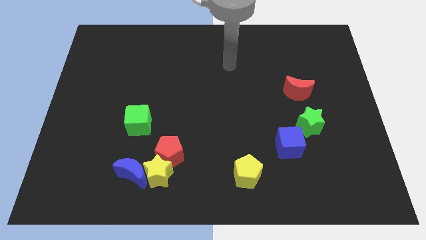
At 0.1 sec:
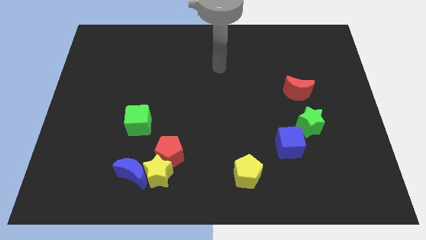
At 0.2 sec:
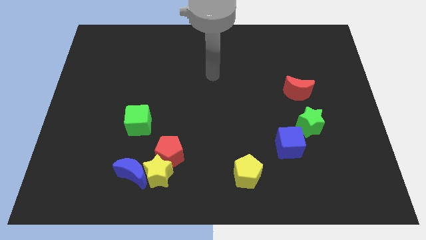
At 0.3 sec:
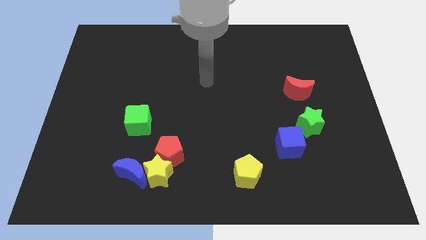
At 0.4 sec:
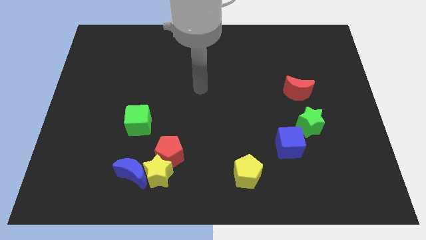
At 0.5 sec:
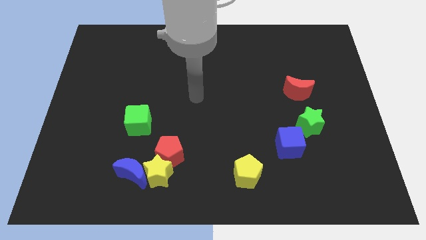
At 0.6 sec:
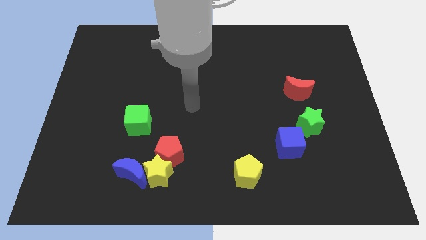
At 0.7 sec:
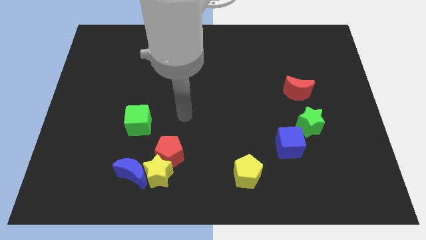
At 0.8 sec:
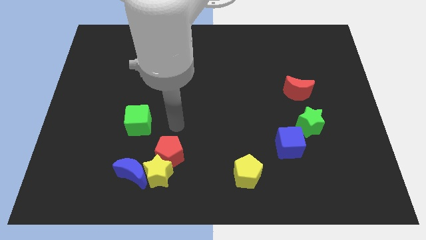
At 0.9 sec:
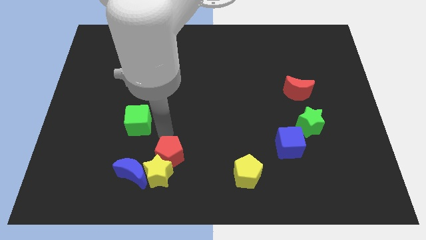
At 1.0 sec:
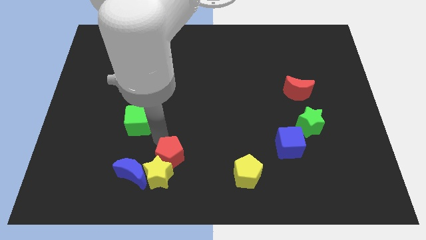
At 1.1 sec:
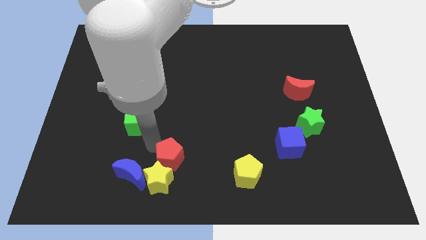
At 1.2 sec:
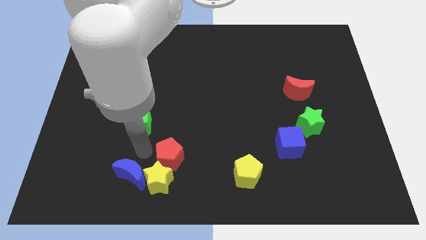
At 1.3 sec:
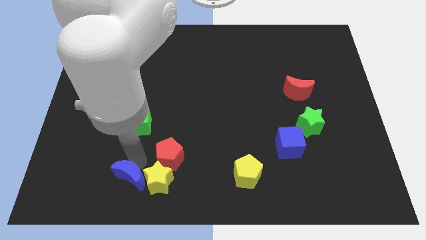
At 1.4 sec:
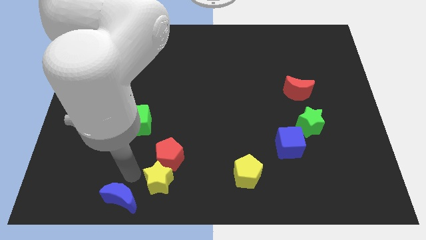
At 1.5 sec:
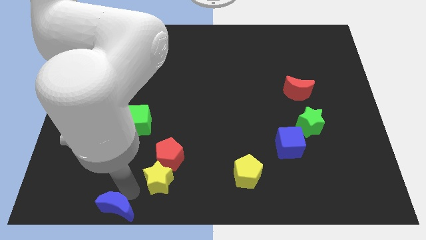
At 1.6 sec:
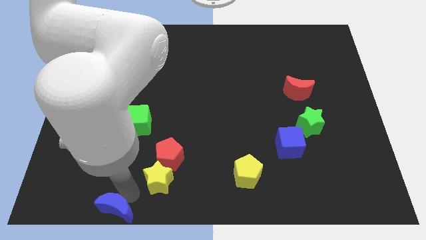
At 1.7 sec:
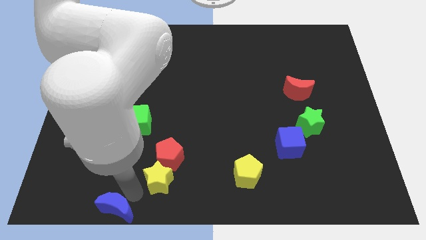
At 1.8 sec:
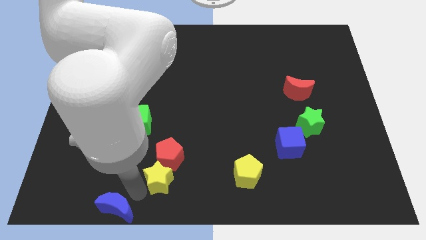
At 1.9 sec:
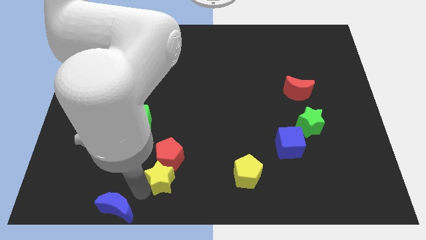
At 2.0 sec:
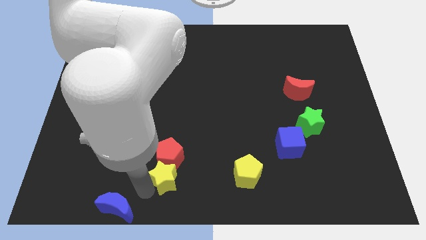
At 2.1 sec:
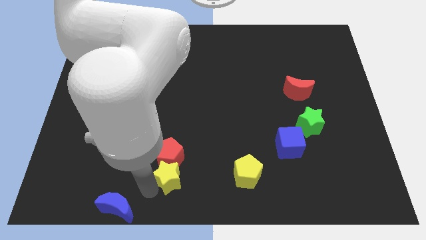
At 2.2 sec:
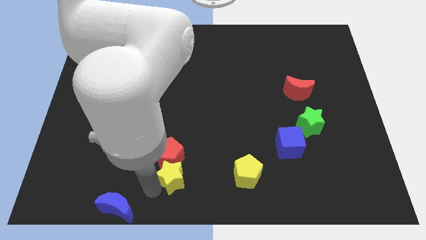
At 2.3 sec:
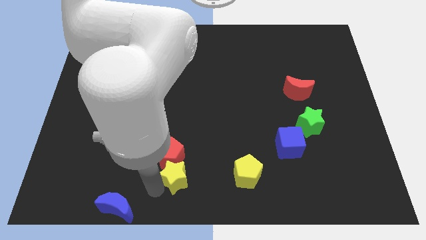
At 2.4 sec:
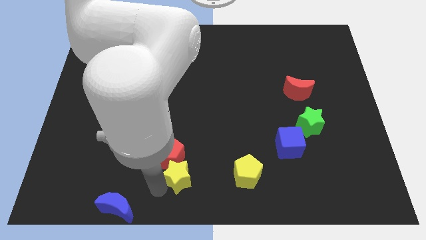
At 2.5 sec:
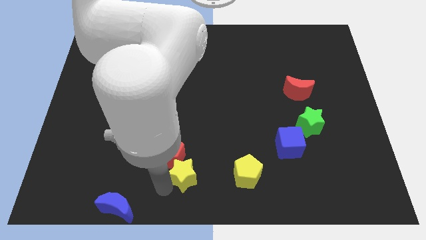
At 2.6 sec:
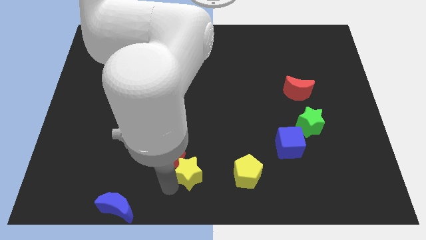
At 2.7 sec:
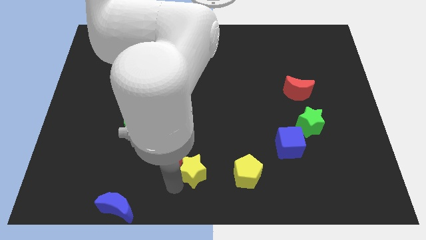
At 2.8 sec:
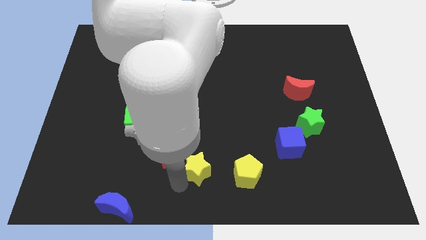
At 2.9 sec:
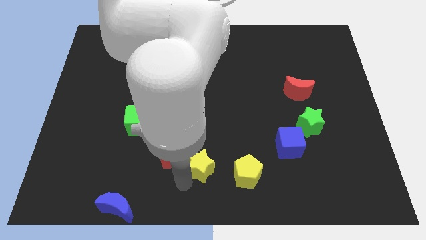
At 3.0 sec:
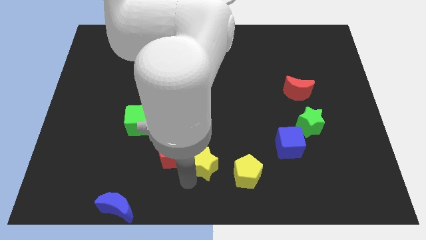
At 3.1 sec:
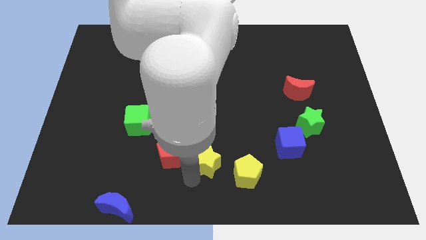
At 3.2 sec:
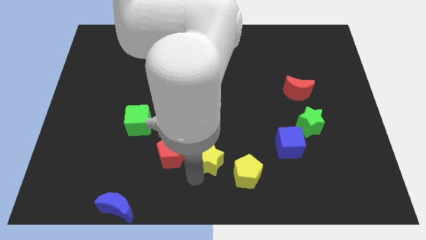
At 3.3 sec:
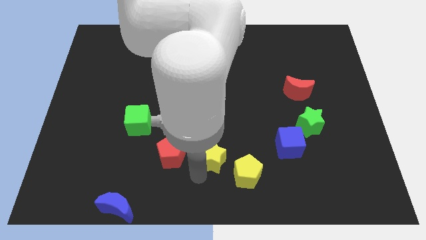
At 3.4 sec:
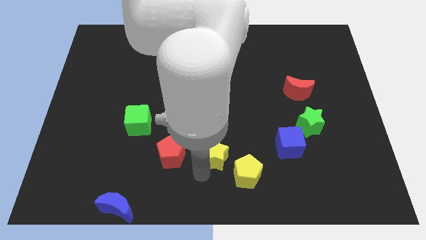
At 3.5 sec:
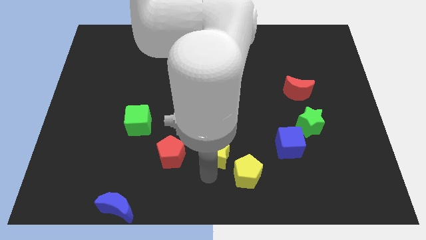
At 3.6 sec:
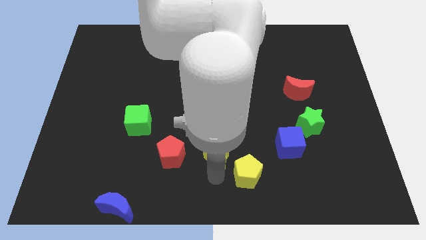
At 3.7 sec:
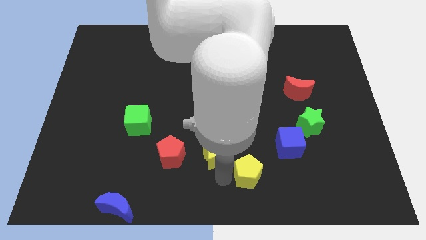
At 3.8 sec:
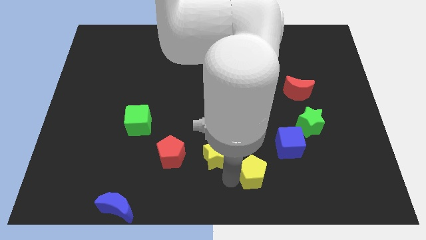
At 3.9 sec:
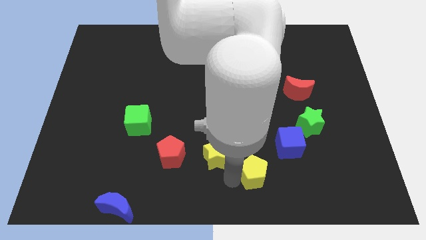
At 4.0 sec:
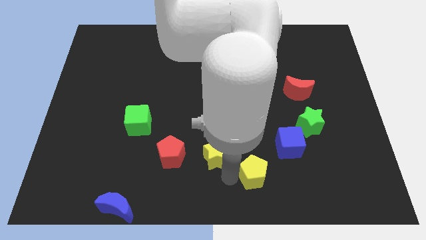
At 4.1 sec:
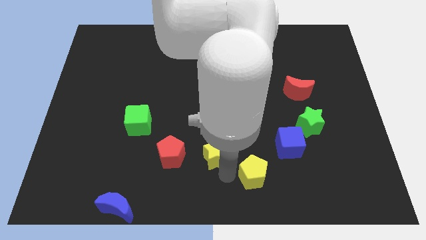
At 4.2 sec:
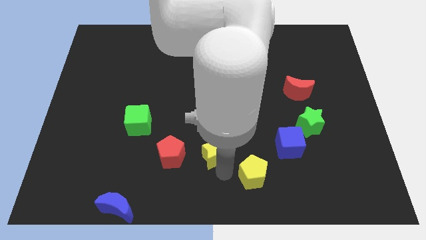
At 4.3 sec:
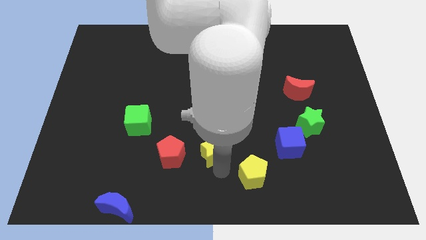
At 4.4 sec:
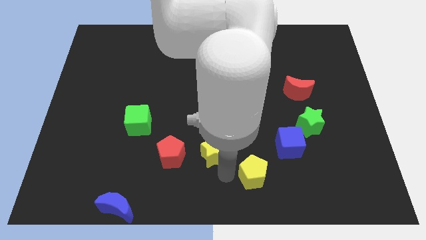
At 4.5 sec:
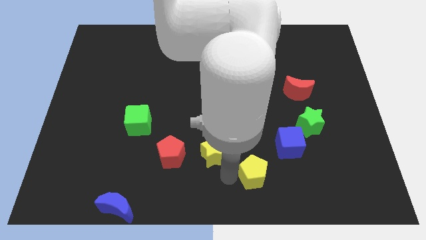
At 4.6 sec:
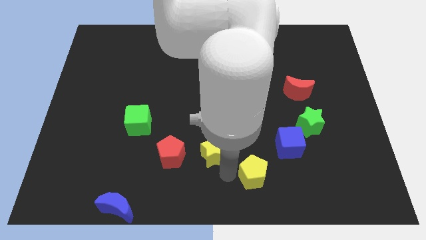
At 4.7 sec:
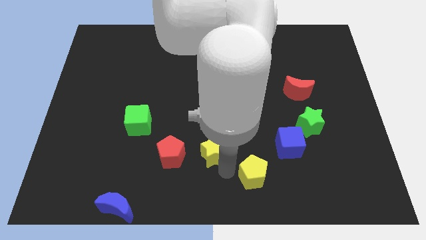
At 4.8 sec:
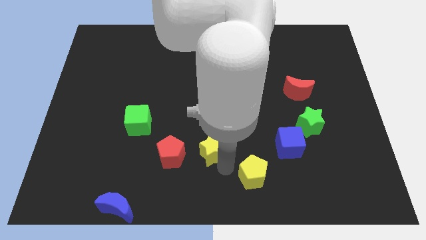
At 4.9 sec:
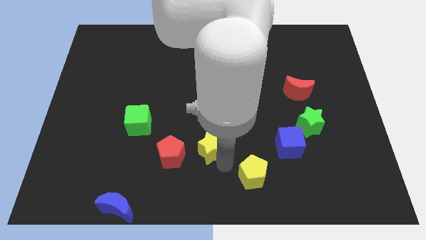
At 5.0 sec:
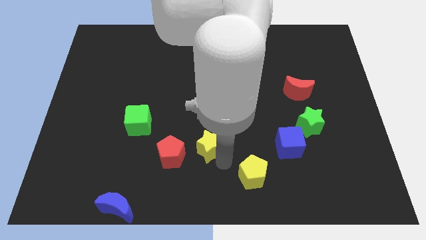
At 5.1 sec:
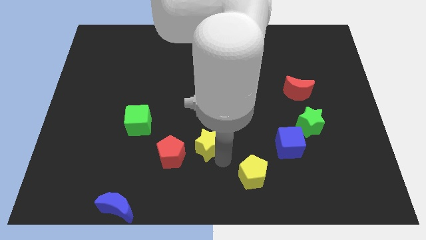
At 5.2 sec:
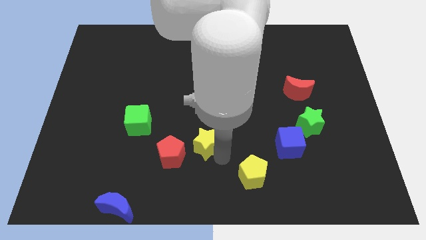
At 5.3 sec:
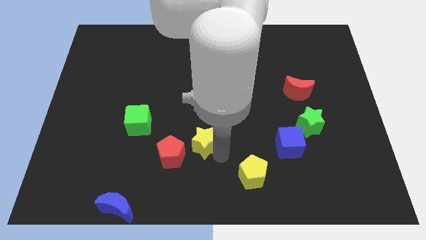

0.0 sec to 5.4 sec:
put the yellow star to the center of the board

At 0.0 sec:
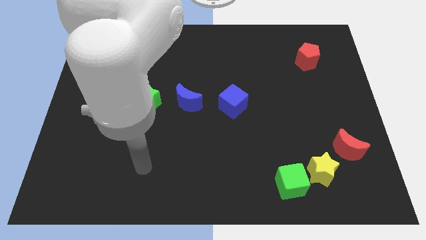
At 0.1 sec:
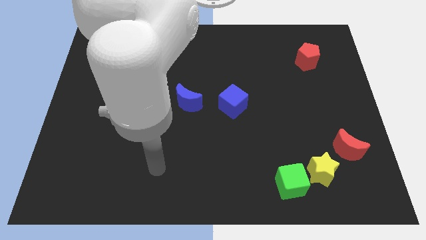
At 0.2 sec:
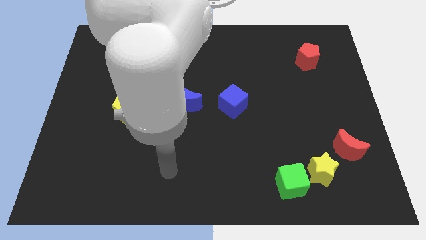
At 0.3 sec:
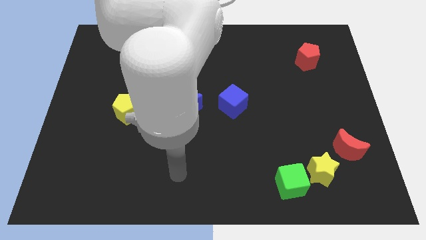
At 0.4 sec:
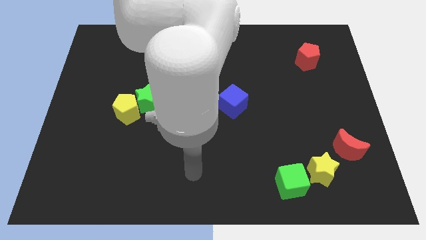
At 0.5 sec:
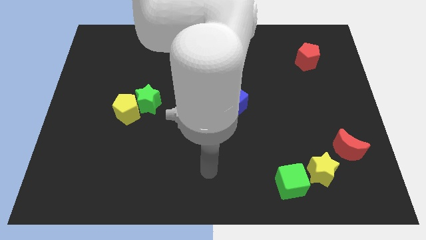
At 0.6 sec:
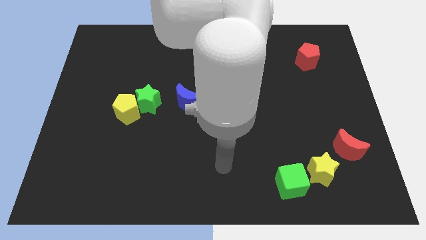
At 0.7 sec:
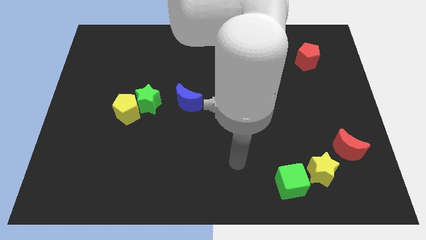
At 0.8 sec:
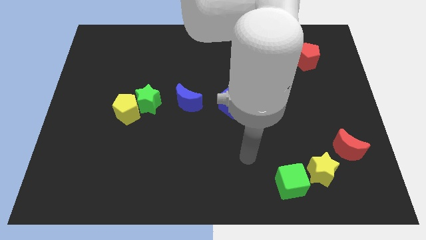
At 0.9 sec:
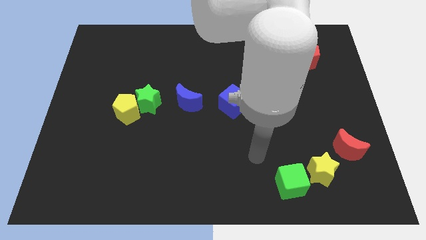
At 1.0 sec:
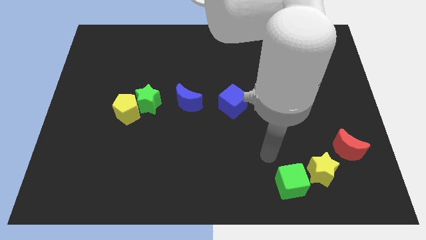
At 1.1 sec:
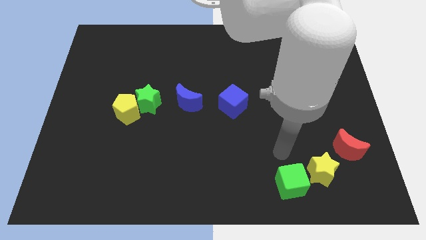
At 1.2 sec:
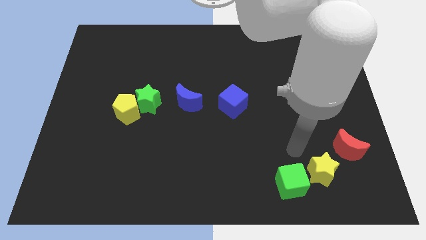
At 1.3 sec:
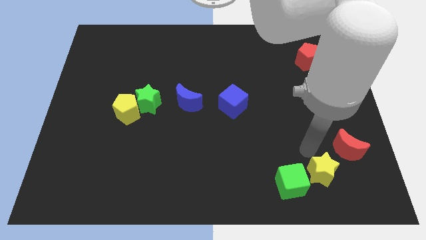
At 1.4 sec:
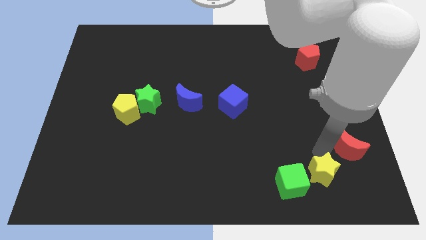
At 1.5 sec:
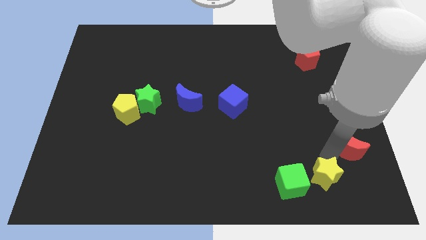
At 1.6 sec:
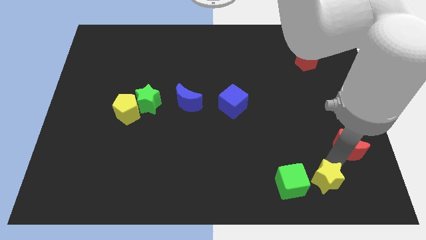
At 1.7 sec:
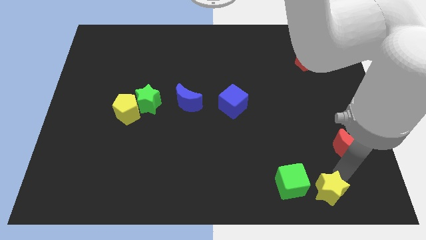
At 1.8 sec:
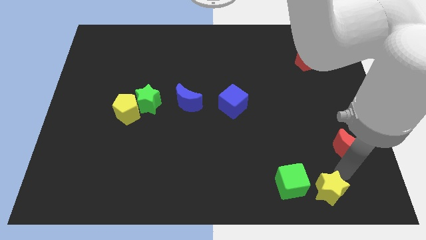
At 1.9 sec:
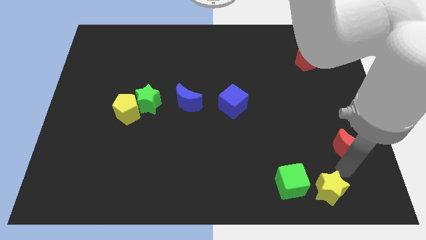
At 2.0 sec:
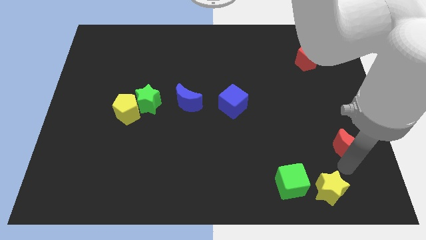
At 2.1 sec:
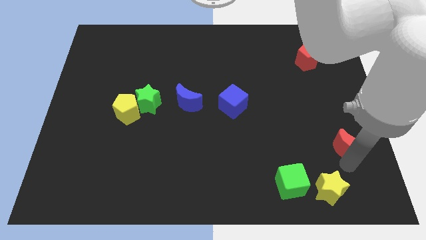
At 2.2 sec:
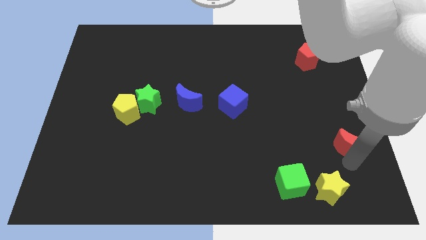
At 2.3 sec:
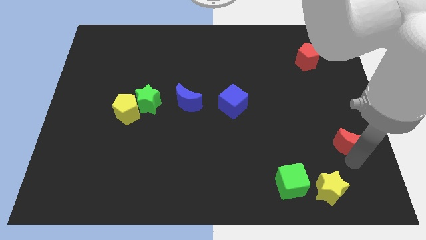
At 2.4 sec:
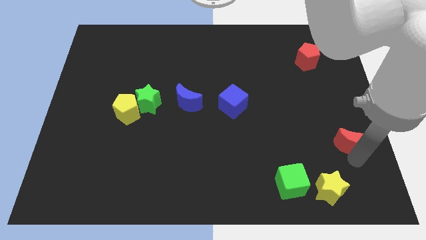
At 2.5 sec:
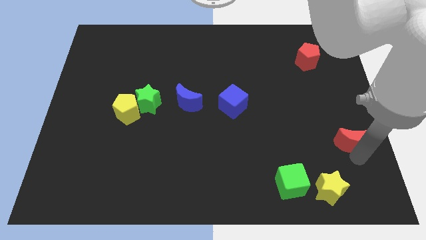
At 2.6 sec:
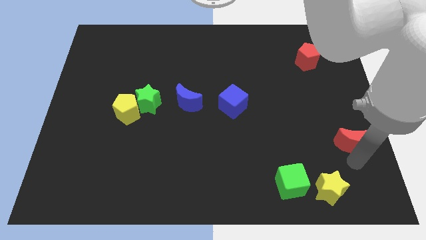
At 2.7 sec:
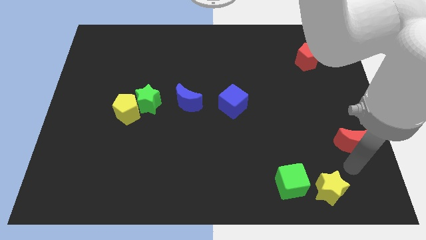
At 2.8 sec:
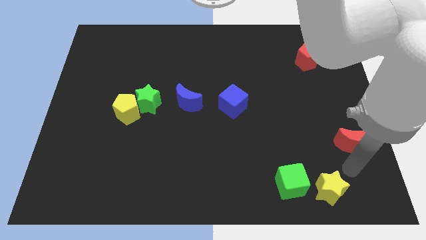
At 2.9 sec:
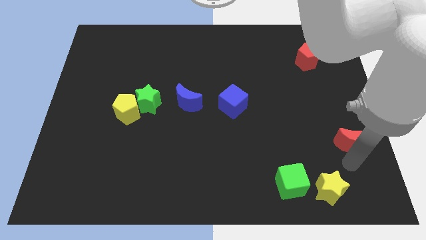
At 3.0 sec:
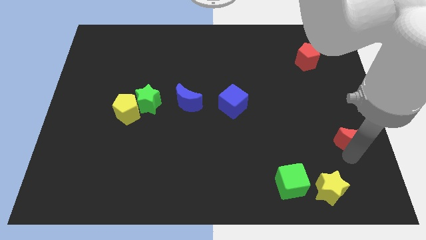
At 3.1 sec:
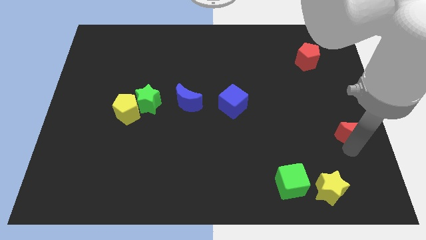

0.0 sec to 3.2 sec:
slide the red moon to the center right
